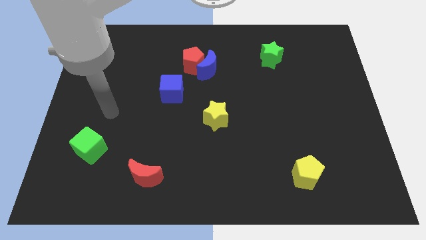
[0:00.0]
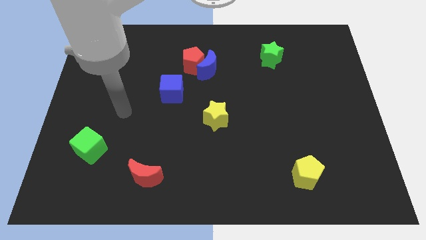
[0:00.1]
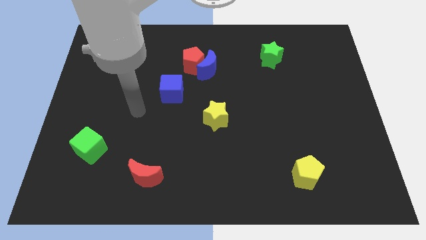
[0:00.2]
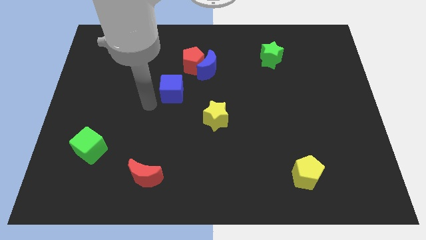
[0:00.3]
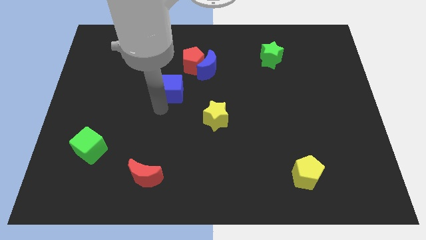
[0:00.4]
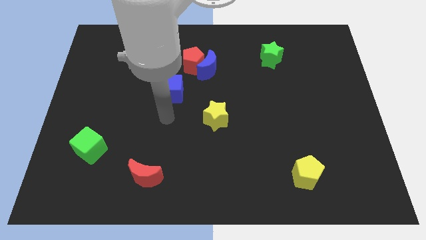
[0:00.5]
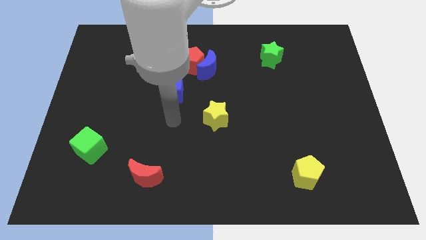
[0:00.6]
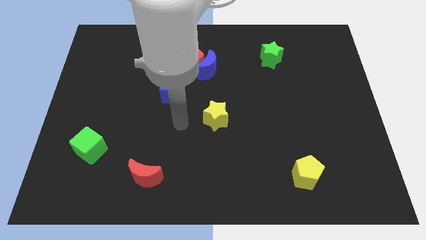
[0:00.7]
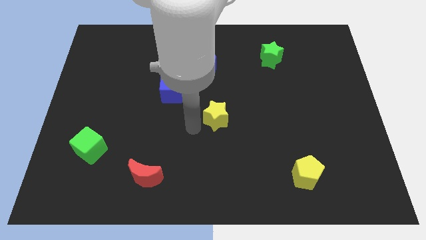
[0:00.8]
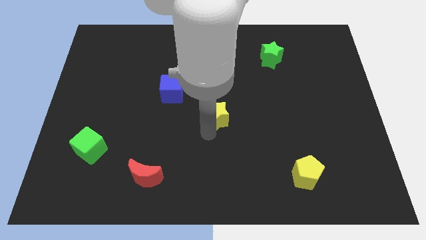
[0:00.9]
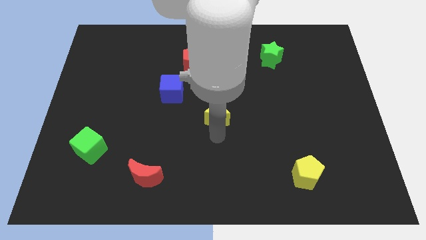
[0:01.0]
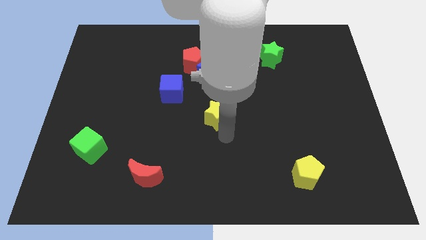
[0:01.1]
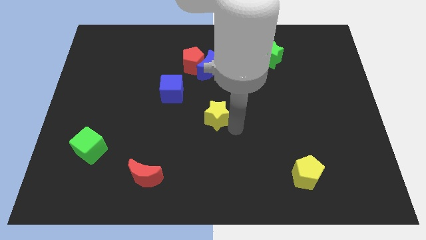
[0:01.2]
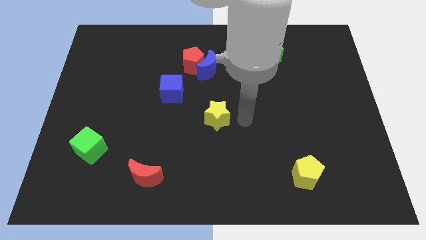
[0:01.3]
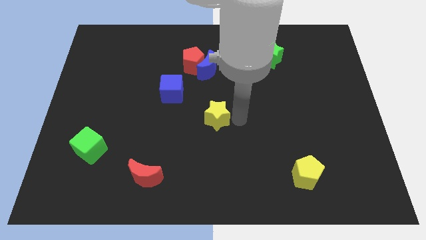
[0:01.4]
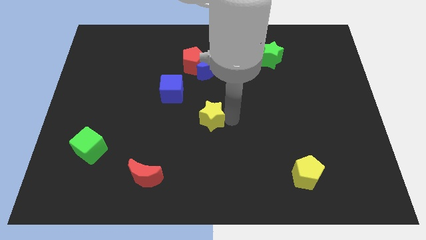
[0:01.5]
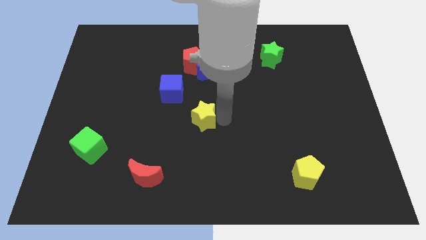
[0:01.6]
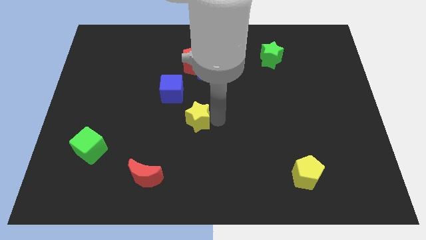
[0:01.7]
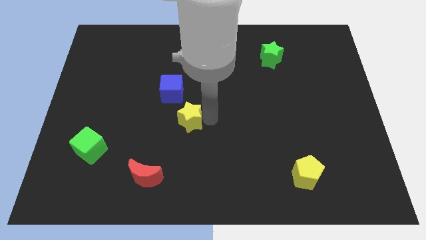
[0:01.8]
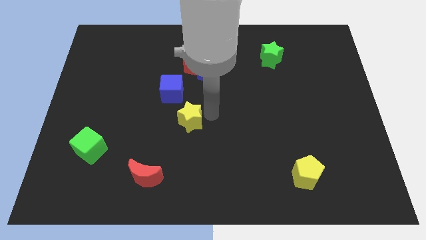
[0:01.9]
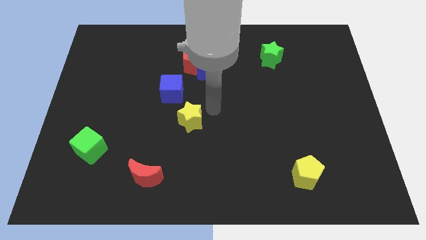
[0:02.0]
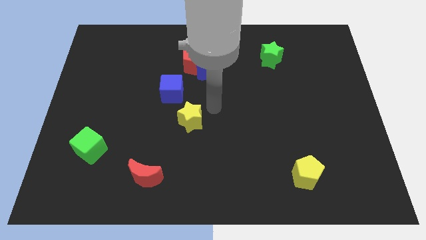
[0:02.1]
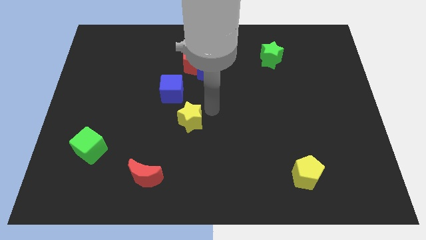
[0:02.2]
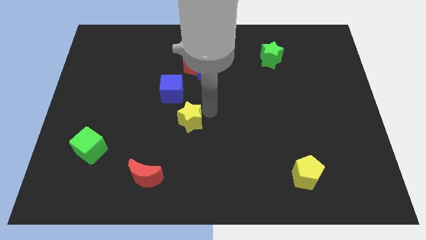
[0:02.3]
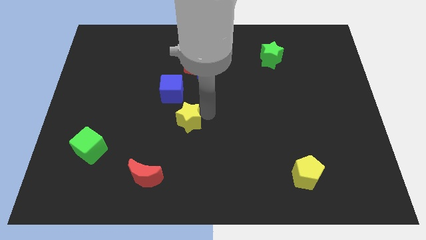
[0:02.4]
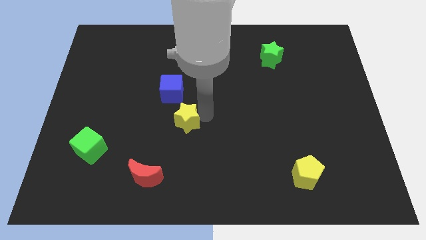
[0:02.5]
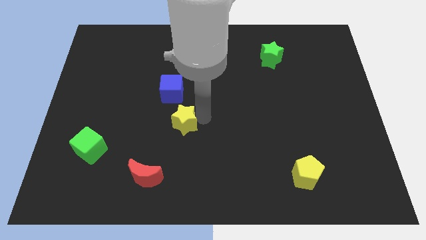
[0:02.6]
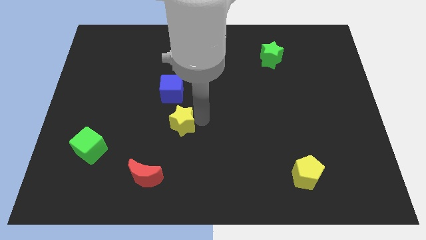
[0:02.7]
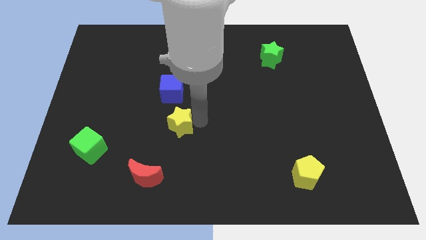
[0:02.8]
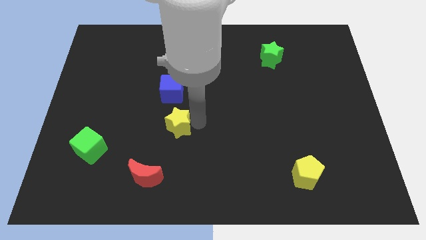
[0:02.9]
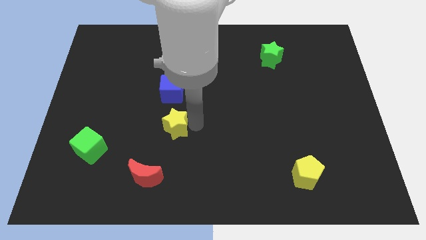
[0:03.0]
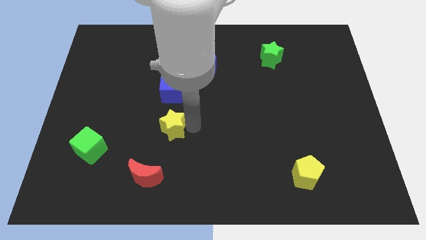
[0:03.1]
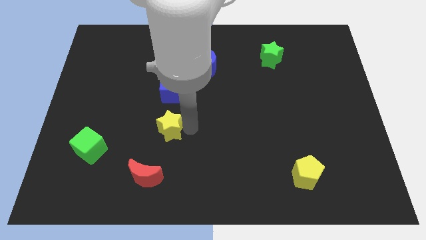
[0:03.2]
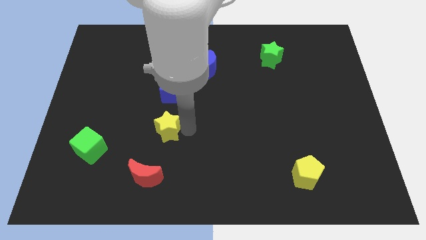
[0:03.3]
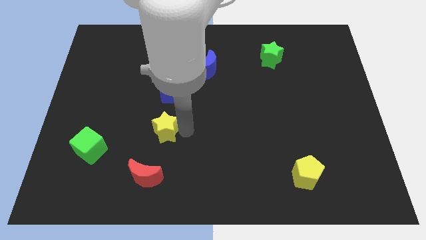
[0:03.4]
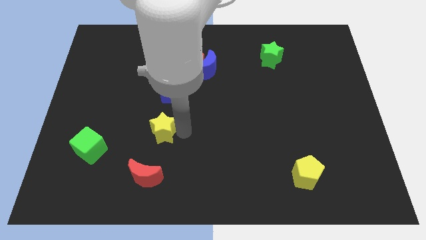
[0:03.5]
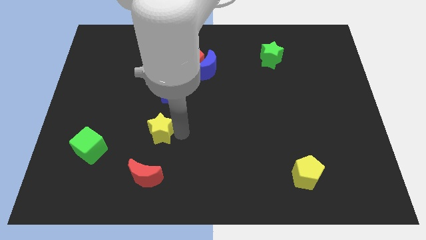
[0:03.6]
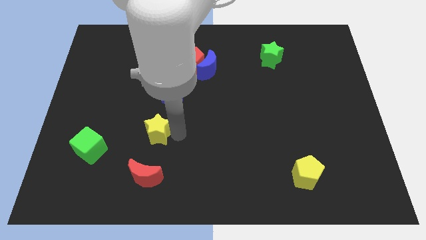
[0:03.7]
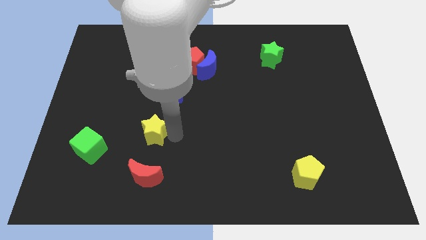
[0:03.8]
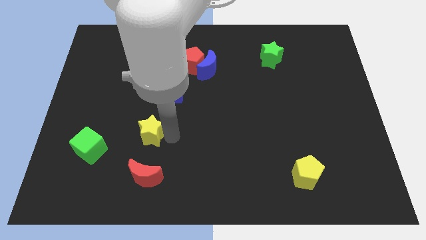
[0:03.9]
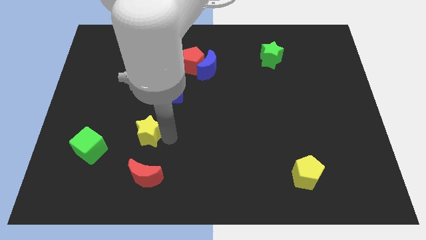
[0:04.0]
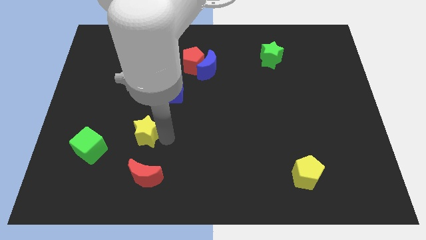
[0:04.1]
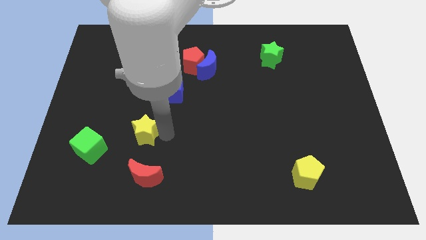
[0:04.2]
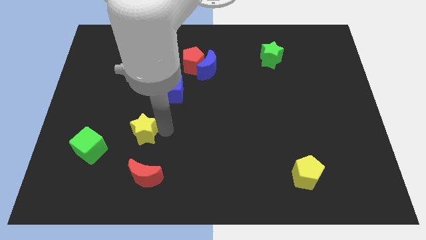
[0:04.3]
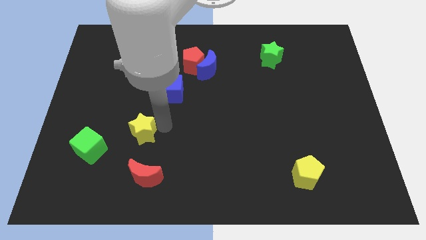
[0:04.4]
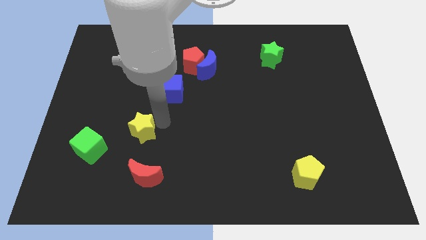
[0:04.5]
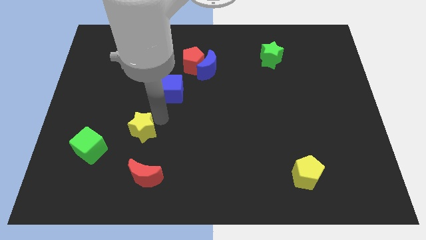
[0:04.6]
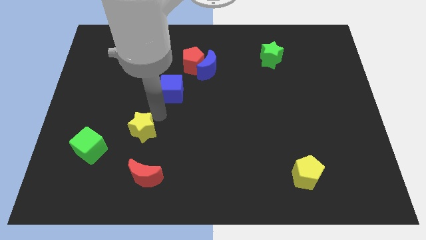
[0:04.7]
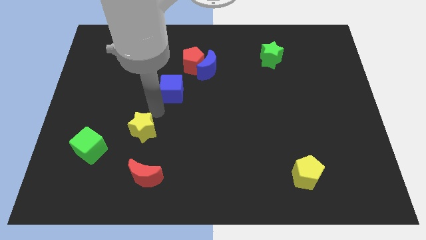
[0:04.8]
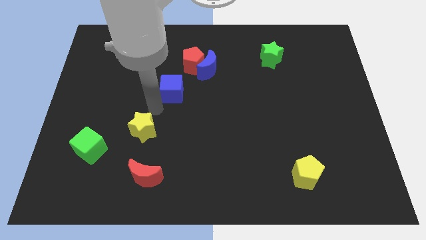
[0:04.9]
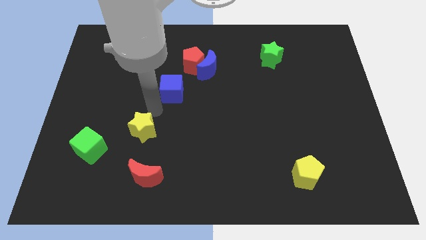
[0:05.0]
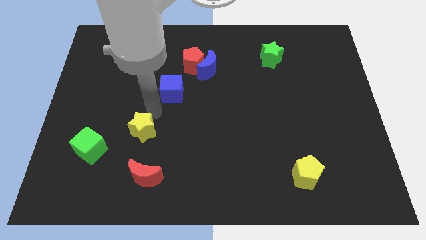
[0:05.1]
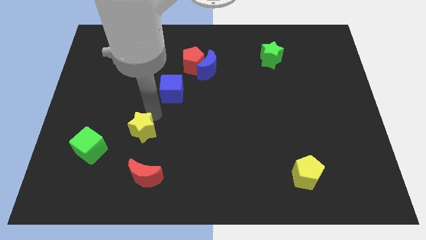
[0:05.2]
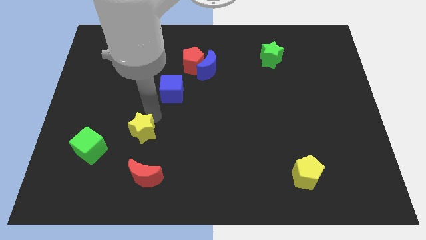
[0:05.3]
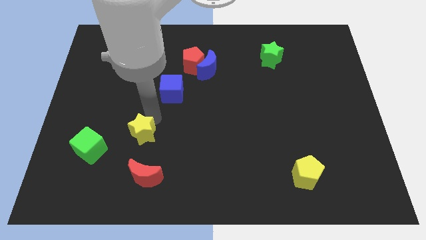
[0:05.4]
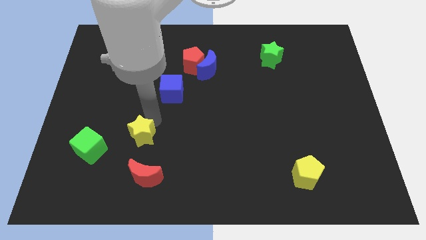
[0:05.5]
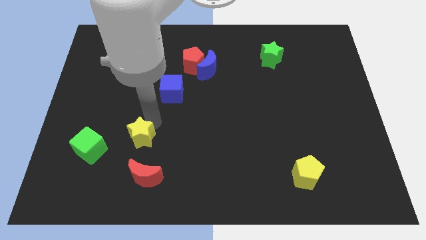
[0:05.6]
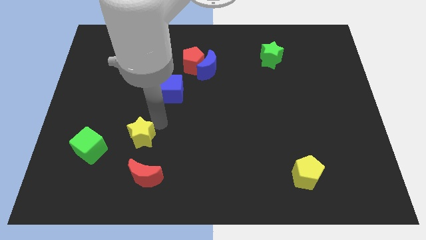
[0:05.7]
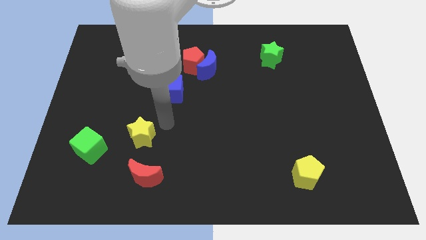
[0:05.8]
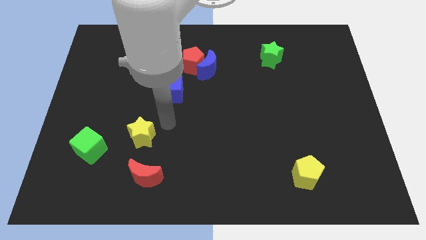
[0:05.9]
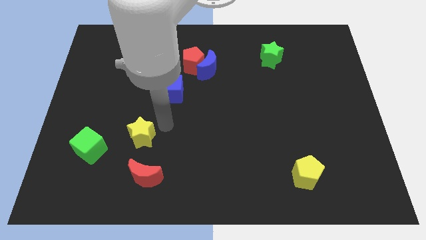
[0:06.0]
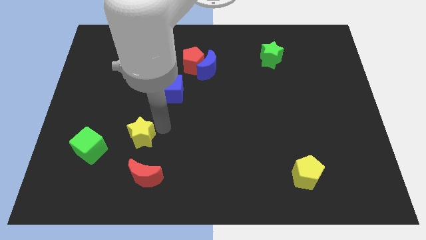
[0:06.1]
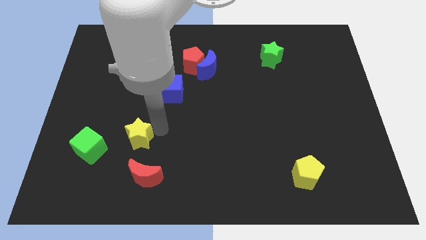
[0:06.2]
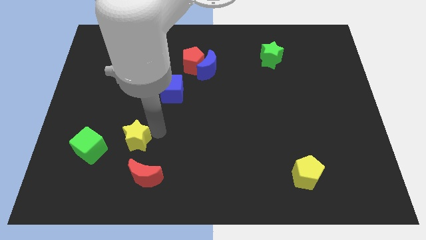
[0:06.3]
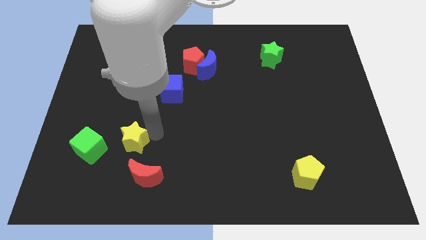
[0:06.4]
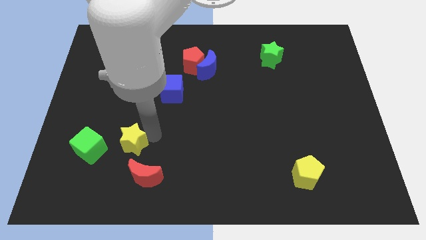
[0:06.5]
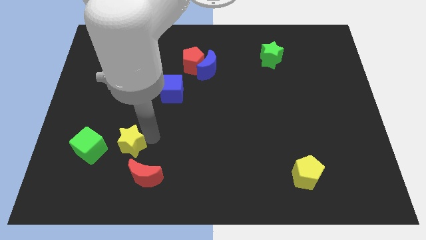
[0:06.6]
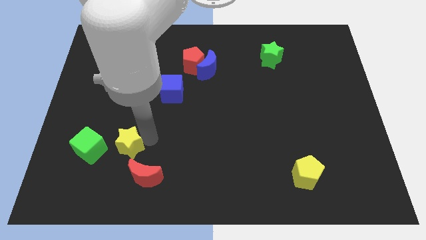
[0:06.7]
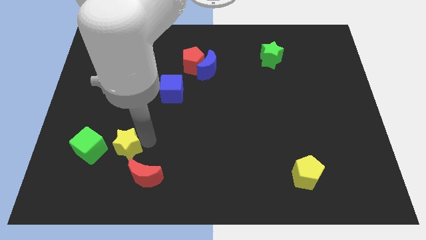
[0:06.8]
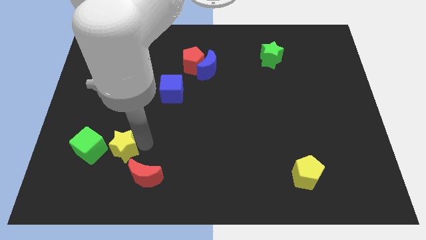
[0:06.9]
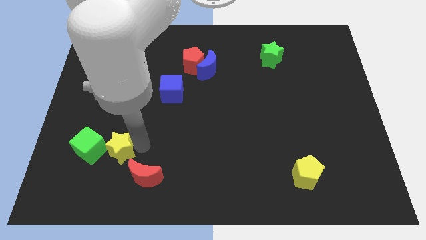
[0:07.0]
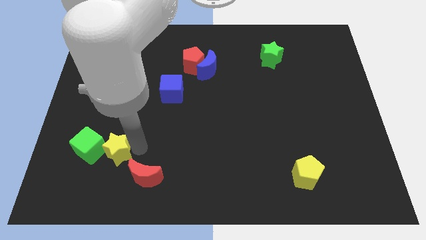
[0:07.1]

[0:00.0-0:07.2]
push the yellow star next to the green cube

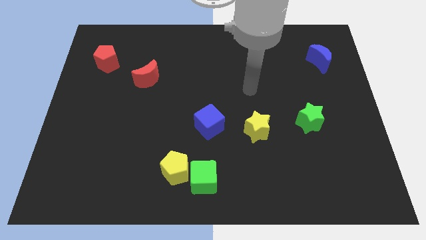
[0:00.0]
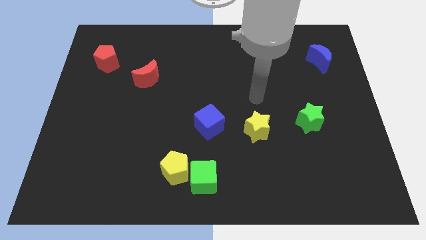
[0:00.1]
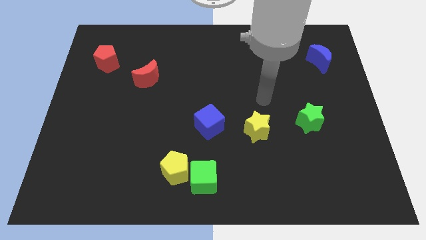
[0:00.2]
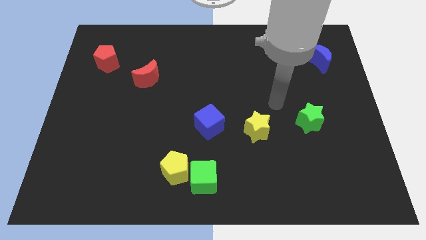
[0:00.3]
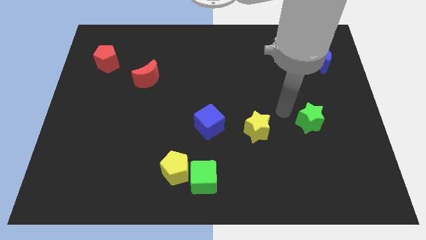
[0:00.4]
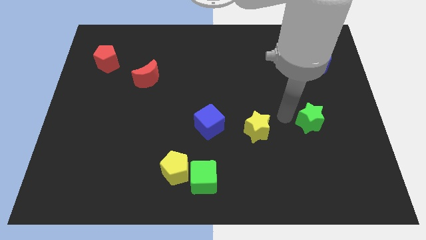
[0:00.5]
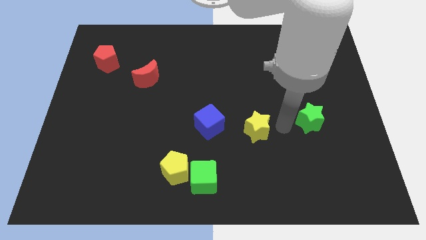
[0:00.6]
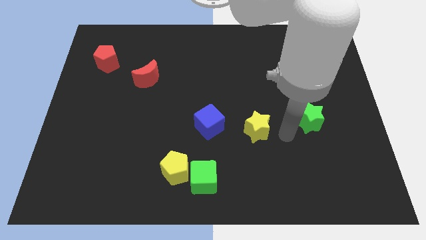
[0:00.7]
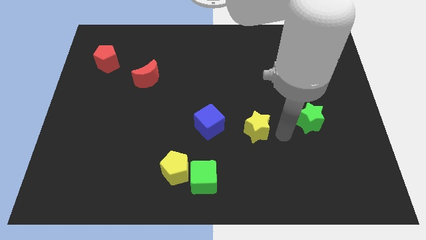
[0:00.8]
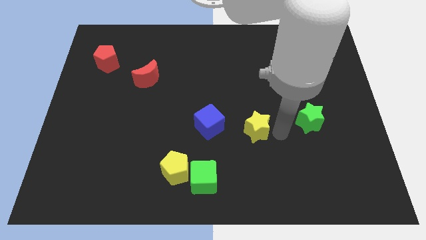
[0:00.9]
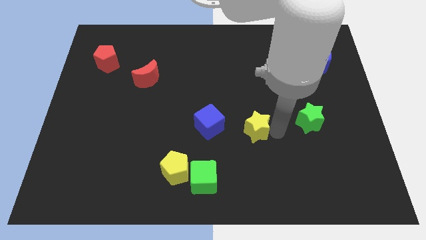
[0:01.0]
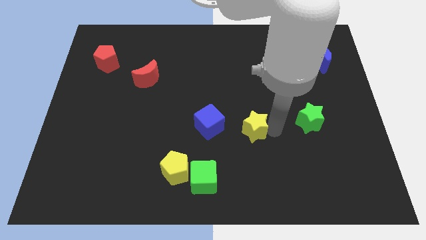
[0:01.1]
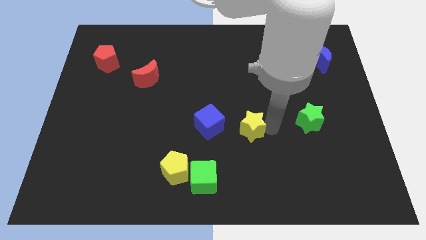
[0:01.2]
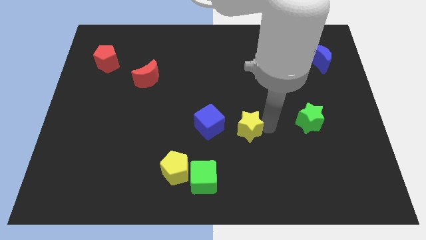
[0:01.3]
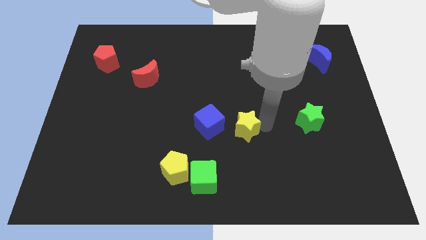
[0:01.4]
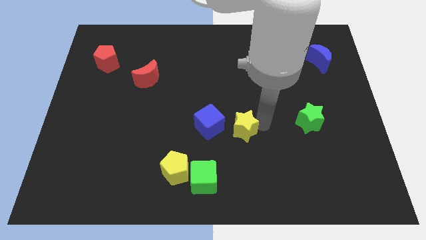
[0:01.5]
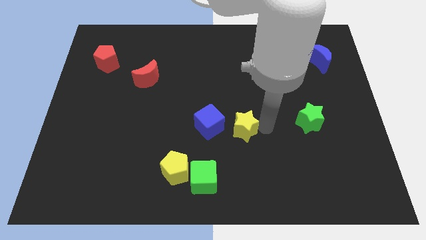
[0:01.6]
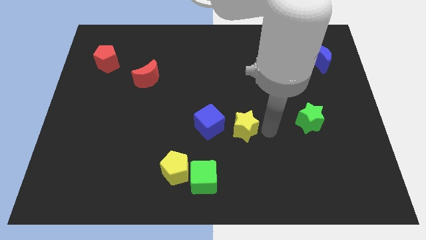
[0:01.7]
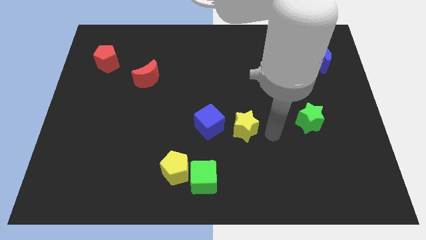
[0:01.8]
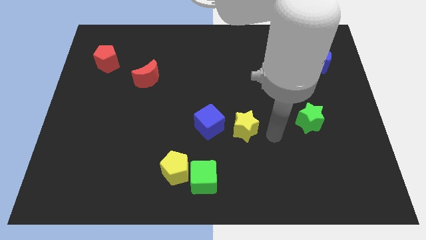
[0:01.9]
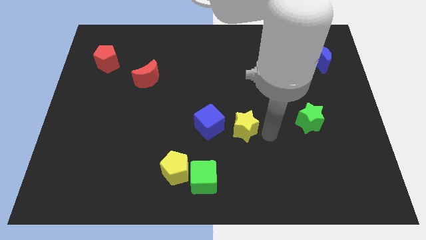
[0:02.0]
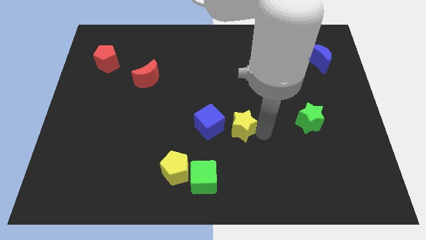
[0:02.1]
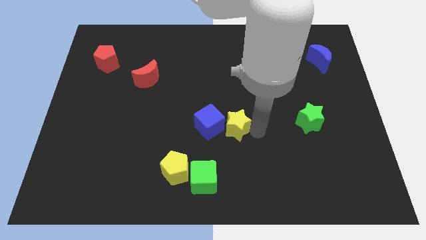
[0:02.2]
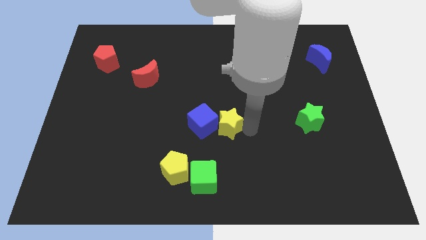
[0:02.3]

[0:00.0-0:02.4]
push the yellow star next to the blue cube
